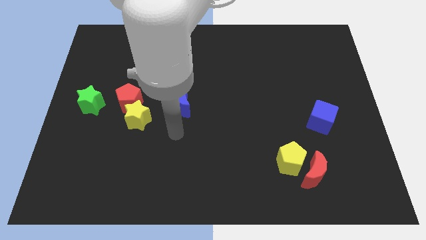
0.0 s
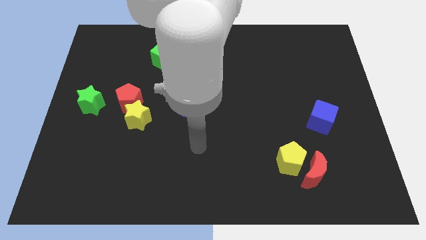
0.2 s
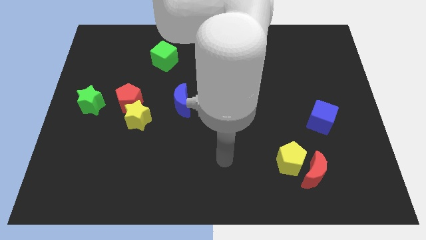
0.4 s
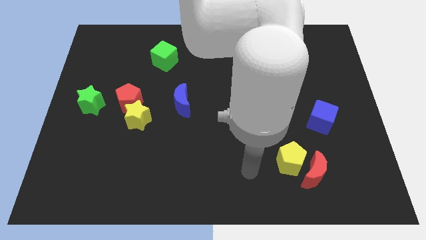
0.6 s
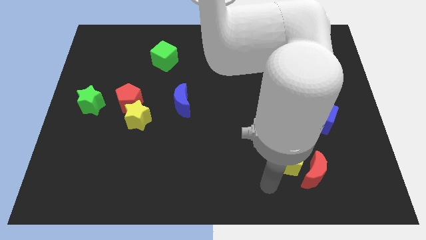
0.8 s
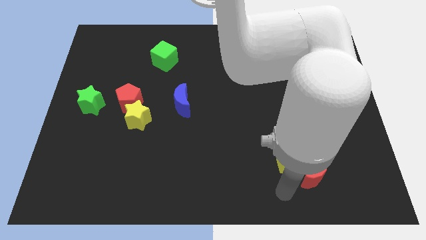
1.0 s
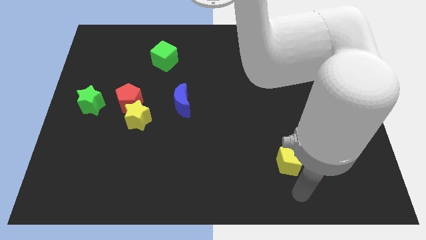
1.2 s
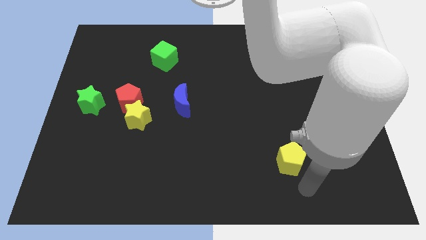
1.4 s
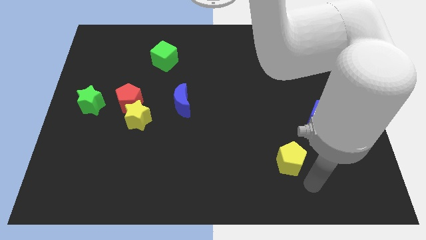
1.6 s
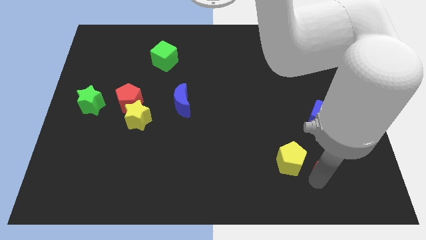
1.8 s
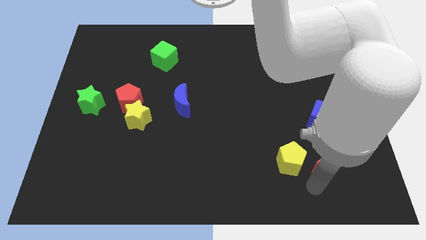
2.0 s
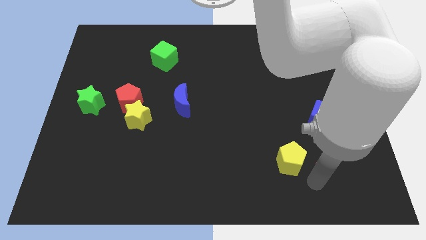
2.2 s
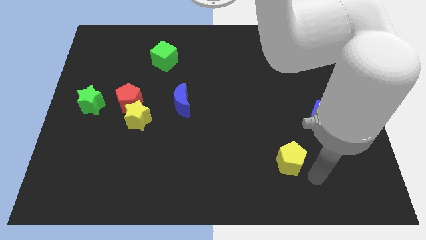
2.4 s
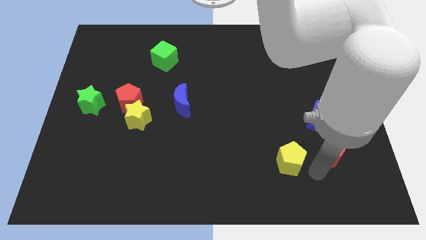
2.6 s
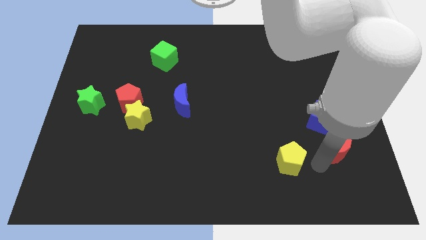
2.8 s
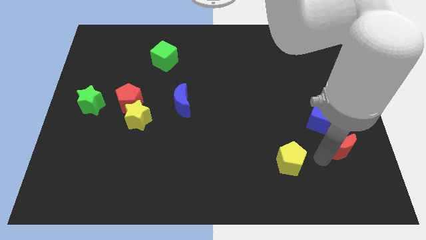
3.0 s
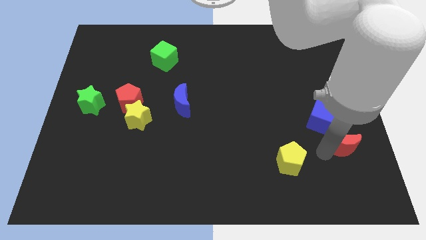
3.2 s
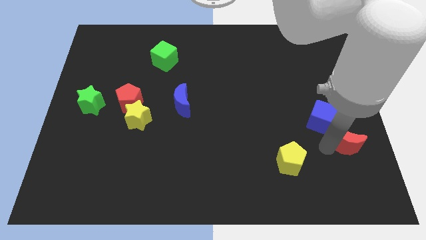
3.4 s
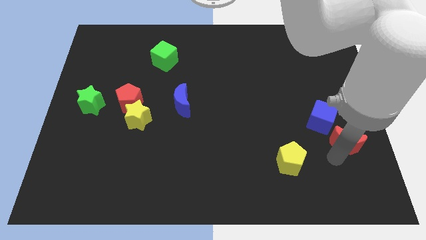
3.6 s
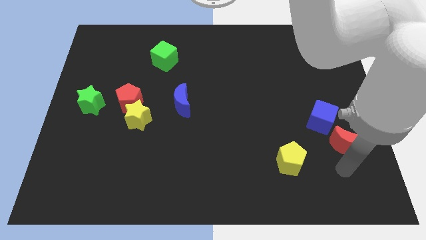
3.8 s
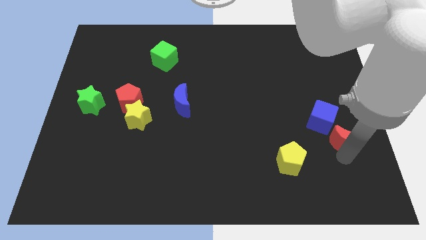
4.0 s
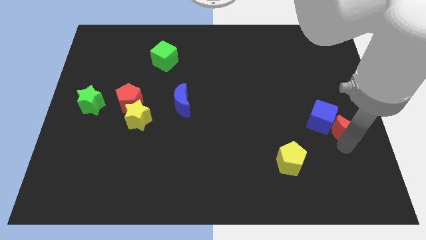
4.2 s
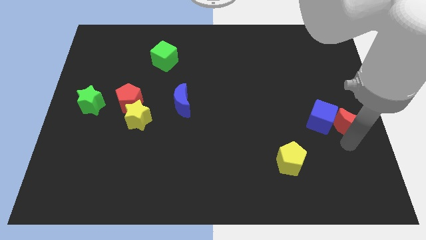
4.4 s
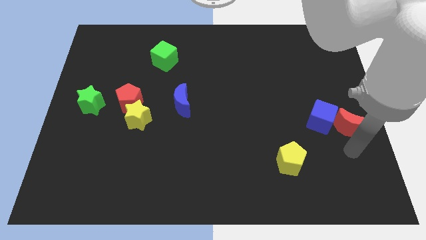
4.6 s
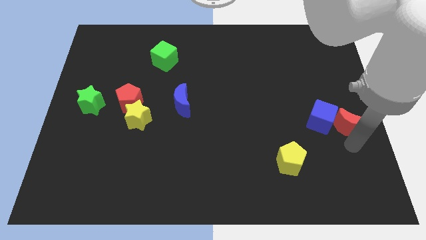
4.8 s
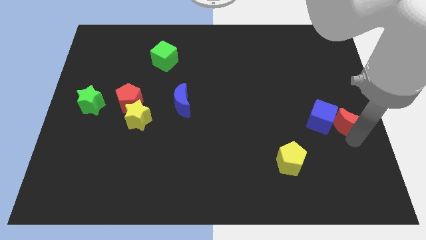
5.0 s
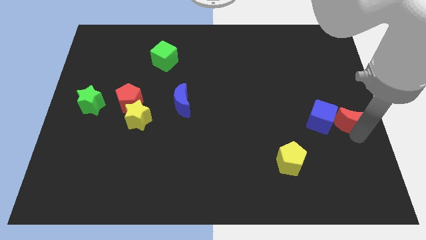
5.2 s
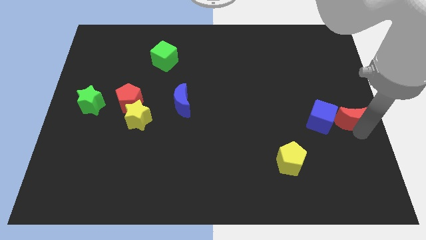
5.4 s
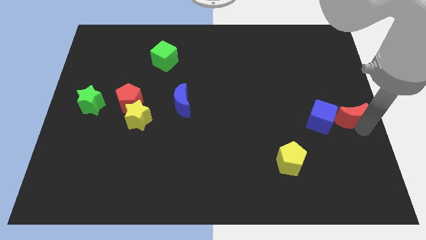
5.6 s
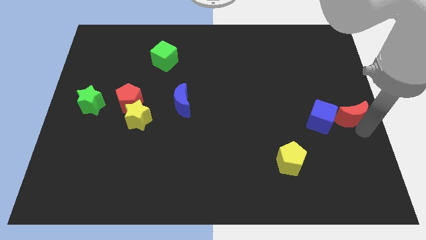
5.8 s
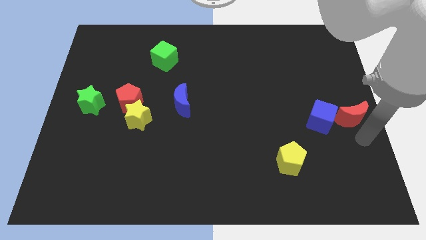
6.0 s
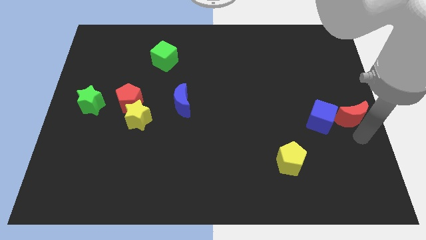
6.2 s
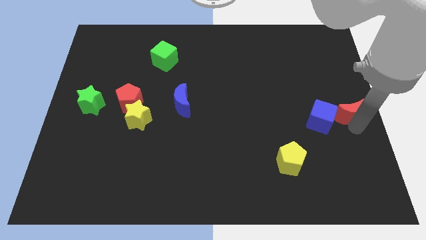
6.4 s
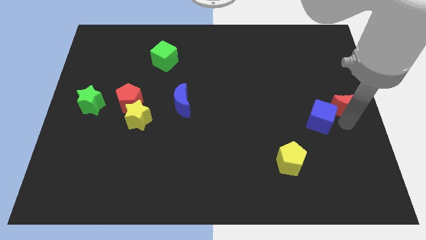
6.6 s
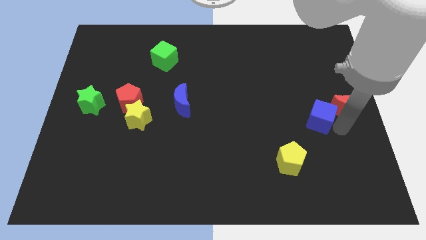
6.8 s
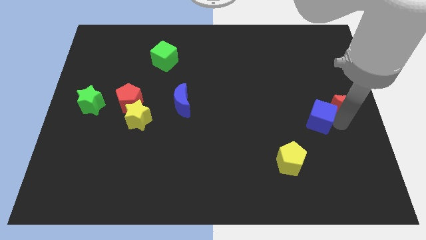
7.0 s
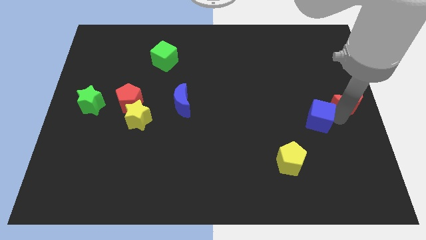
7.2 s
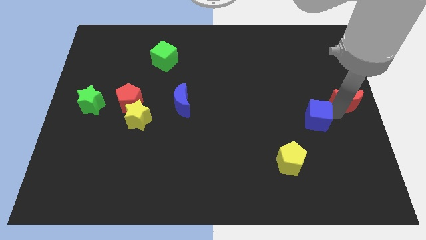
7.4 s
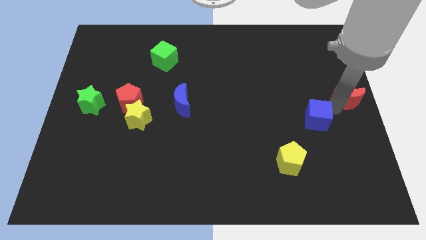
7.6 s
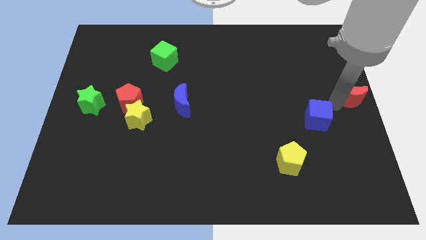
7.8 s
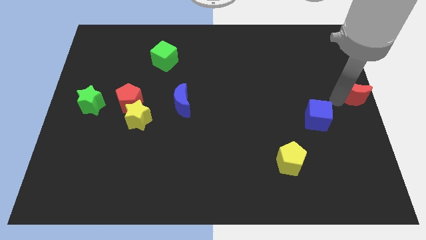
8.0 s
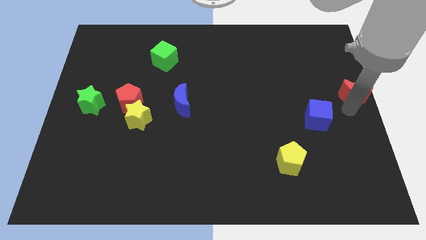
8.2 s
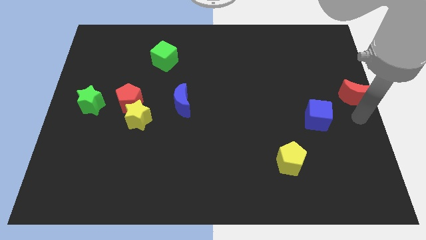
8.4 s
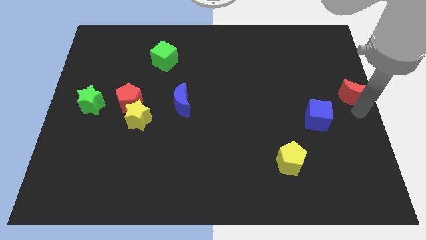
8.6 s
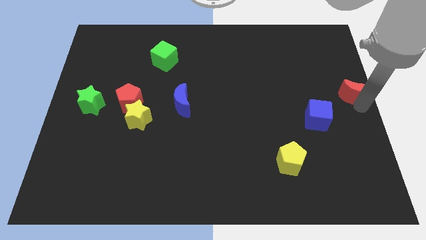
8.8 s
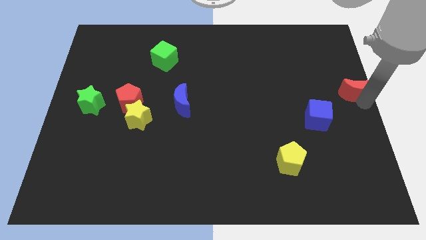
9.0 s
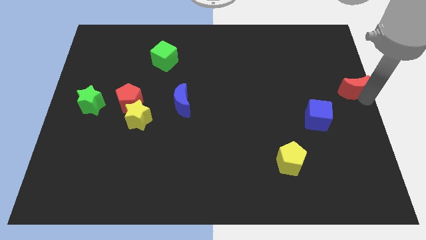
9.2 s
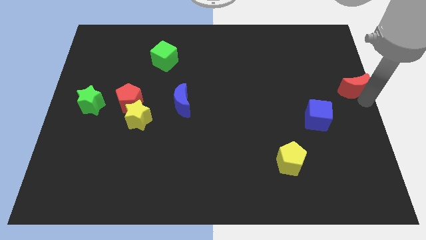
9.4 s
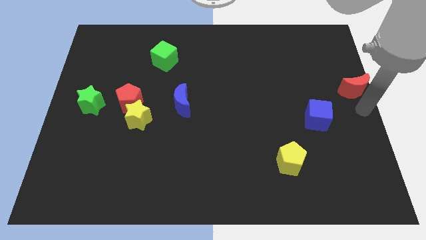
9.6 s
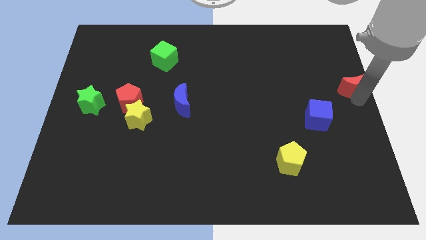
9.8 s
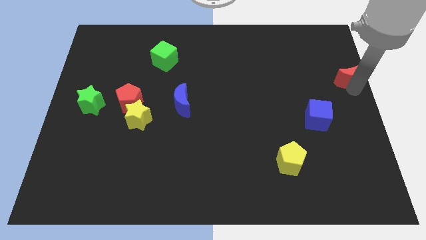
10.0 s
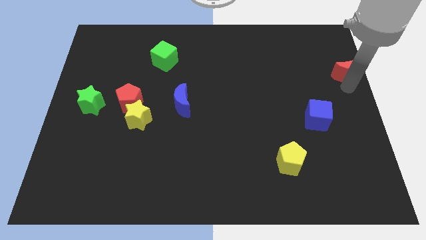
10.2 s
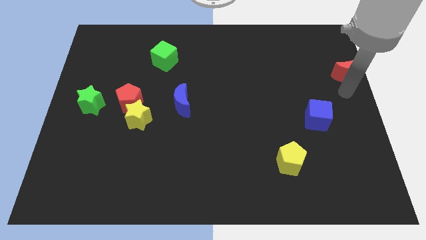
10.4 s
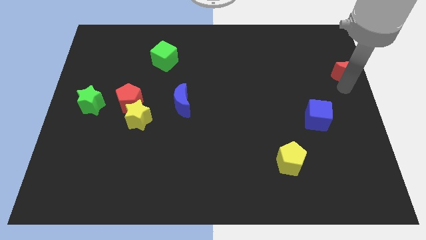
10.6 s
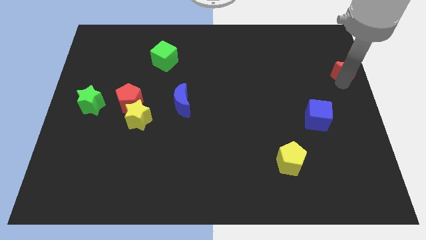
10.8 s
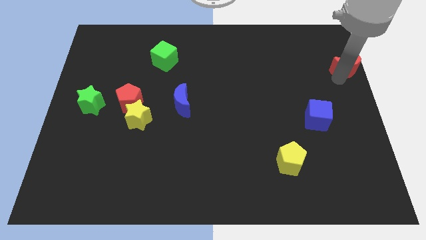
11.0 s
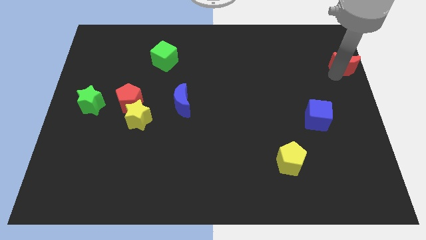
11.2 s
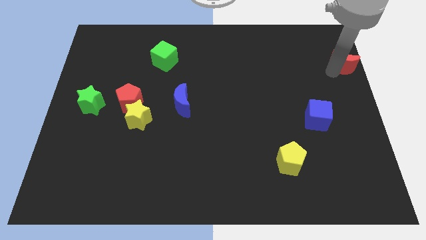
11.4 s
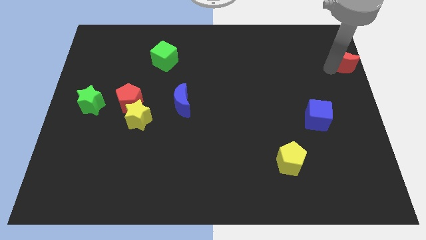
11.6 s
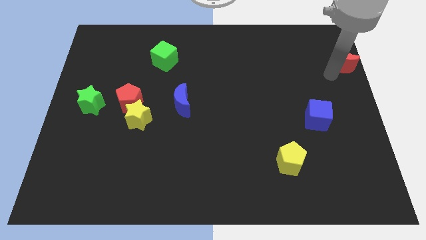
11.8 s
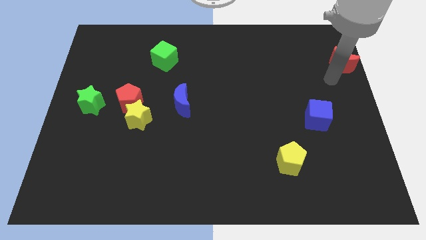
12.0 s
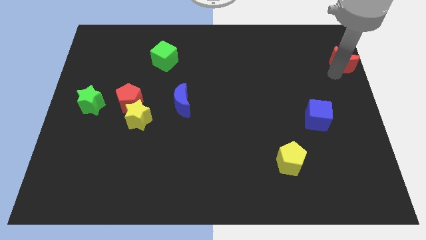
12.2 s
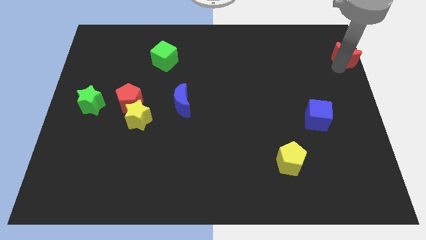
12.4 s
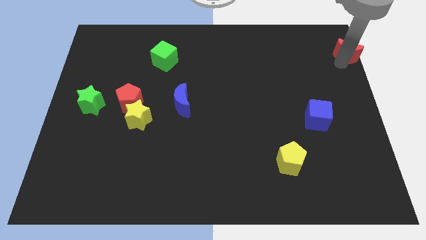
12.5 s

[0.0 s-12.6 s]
put the red moon to the upper right corner

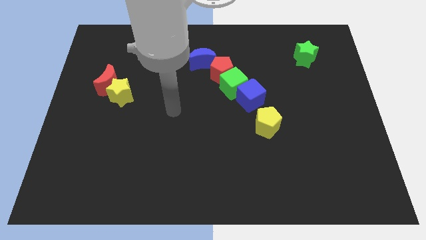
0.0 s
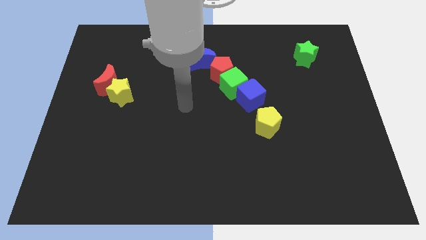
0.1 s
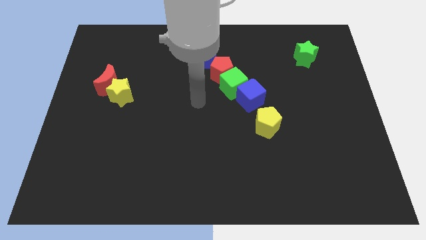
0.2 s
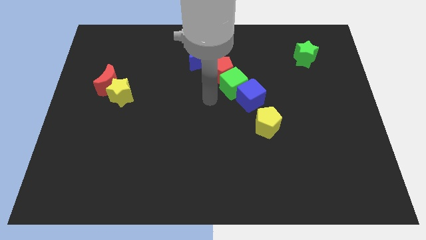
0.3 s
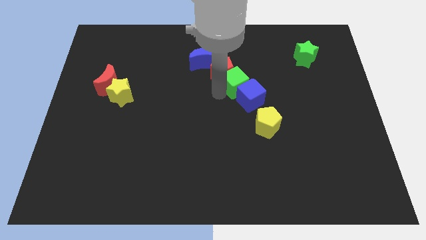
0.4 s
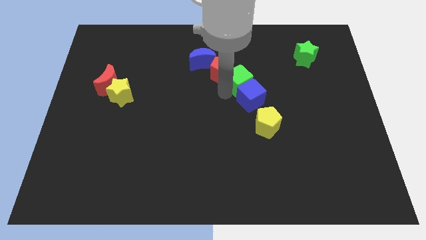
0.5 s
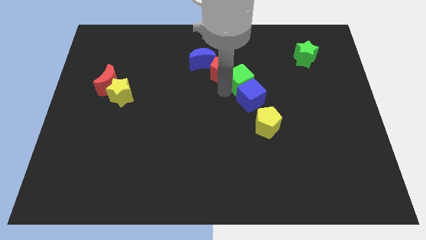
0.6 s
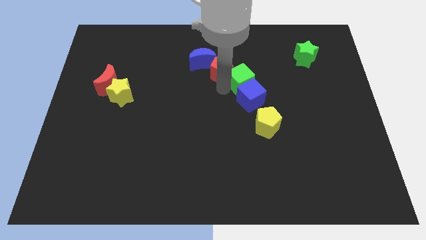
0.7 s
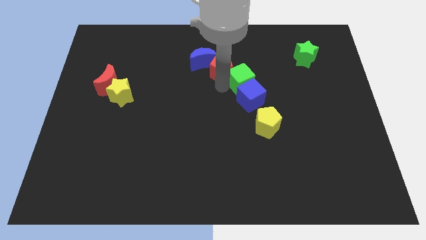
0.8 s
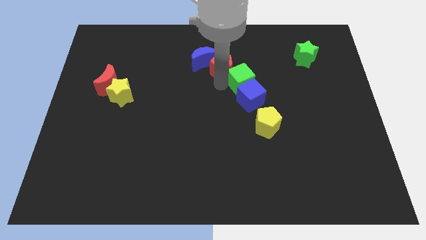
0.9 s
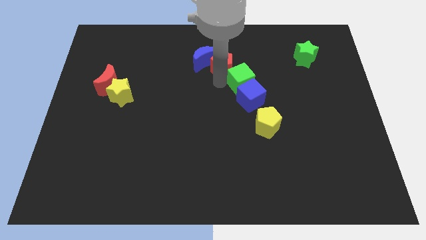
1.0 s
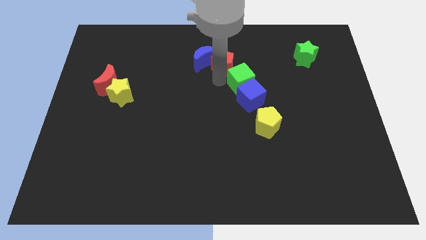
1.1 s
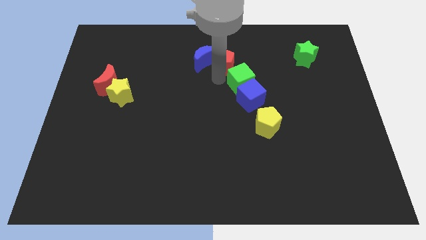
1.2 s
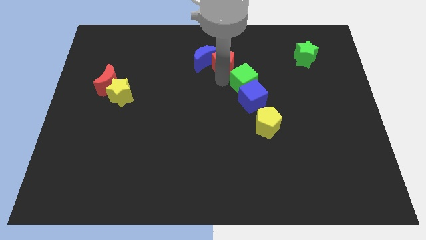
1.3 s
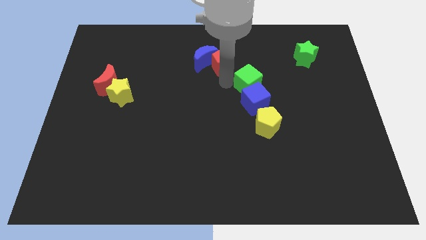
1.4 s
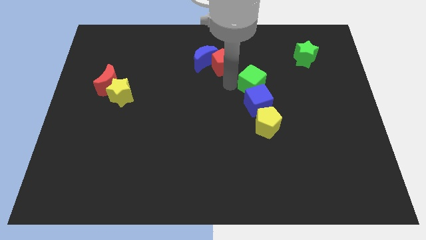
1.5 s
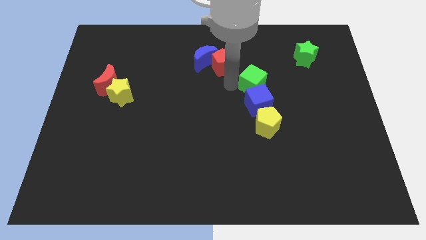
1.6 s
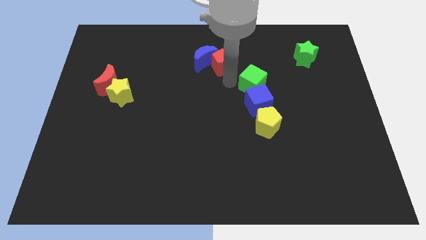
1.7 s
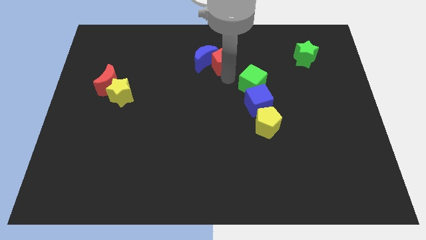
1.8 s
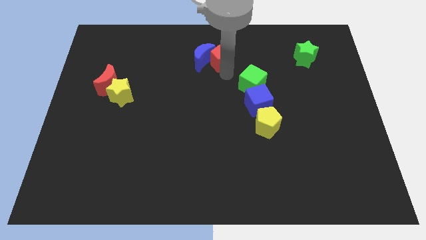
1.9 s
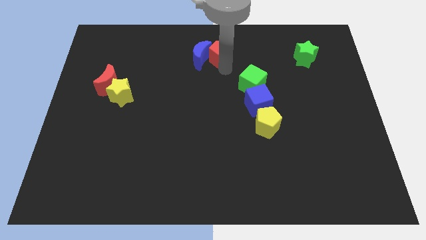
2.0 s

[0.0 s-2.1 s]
put the red pentagon to the top side
